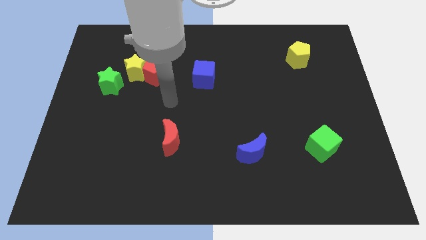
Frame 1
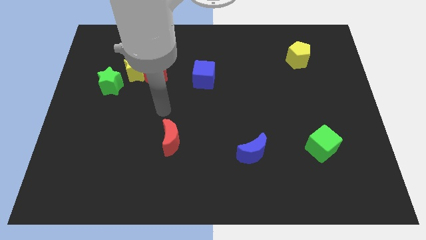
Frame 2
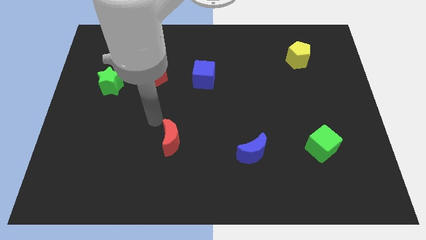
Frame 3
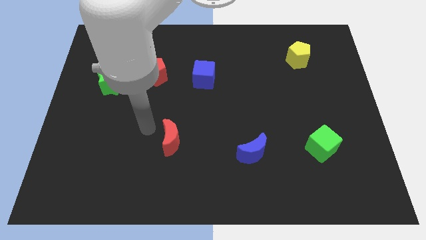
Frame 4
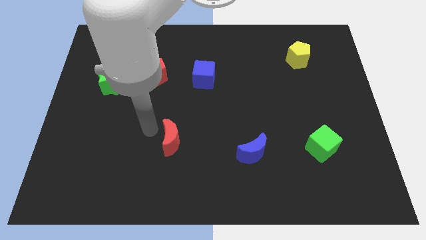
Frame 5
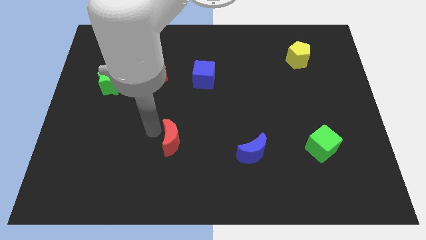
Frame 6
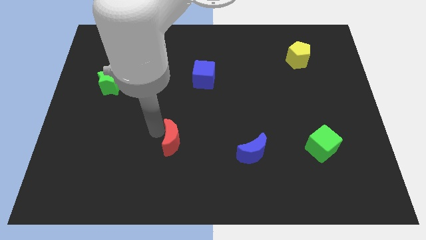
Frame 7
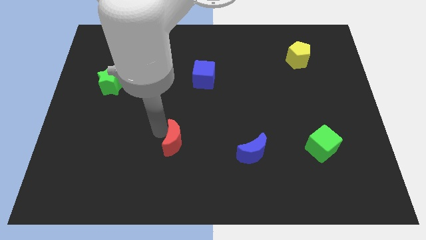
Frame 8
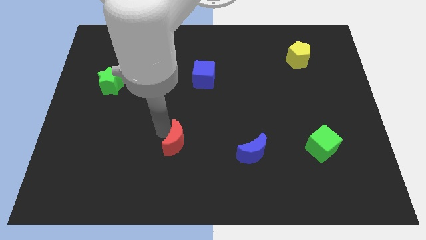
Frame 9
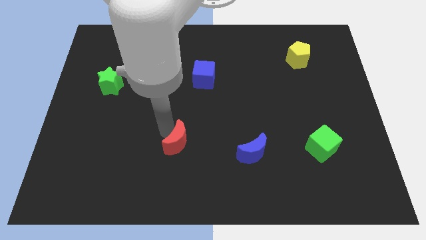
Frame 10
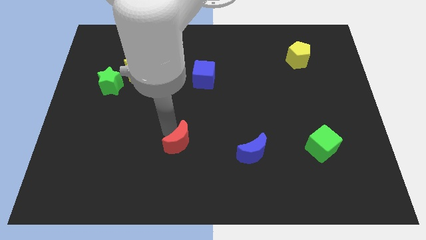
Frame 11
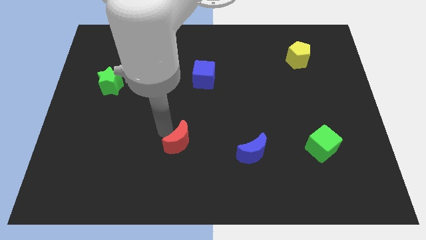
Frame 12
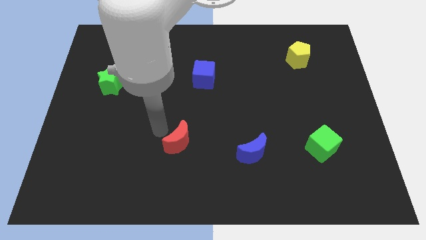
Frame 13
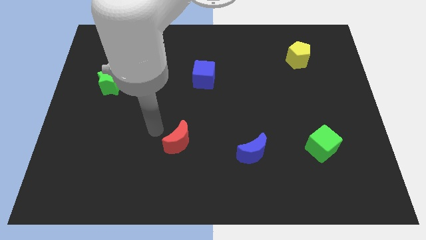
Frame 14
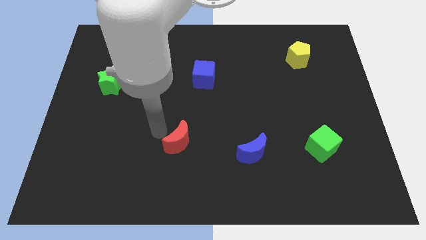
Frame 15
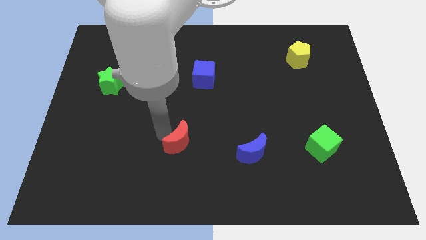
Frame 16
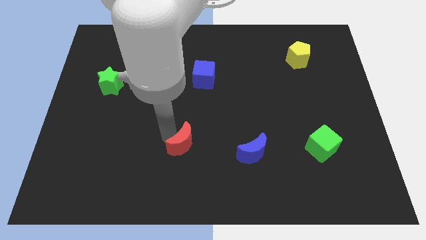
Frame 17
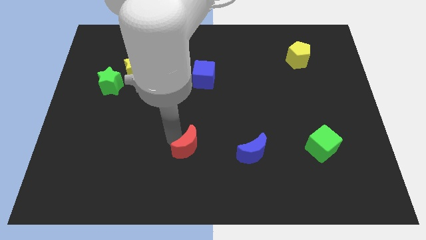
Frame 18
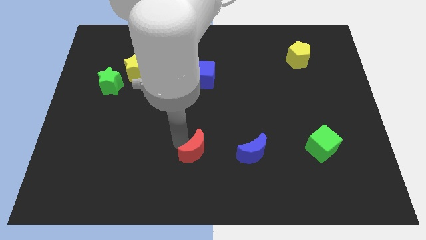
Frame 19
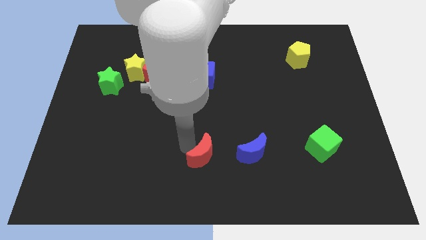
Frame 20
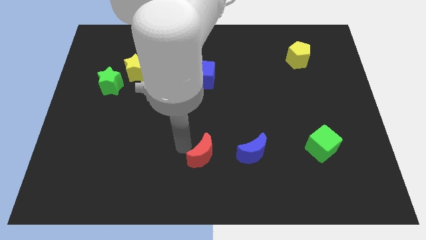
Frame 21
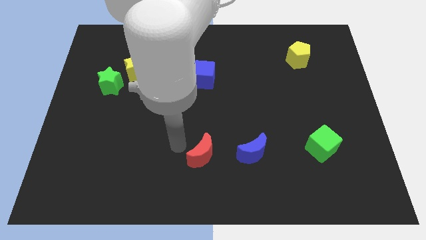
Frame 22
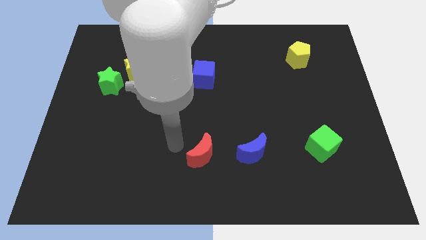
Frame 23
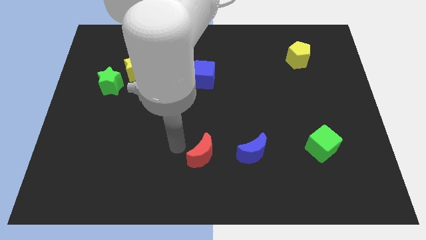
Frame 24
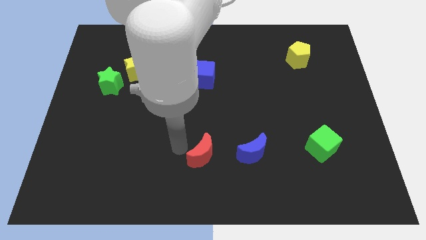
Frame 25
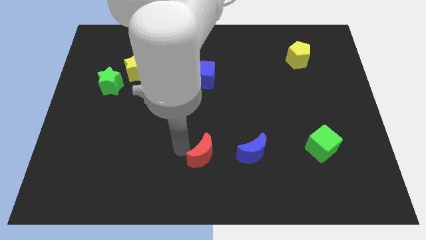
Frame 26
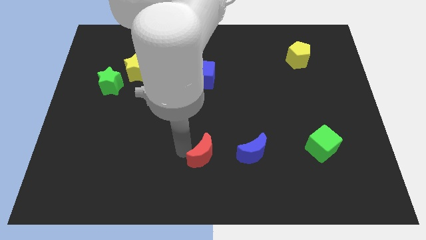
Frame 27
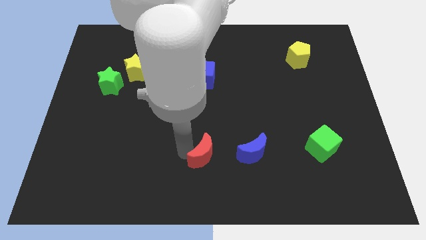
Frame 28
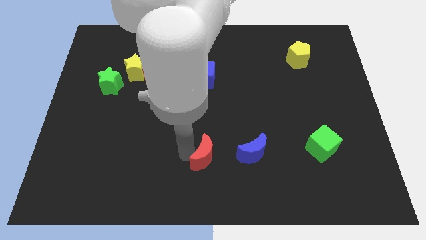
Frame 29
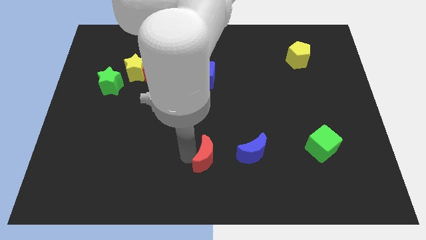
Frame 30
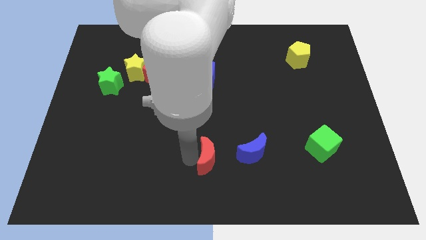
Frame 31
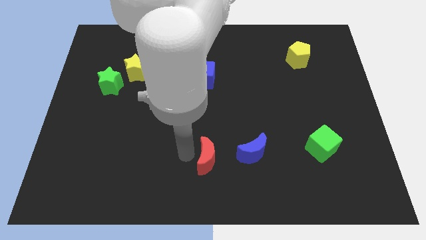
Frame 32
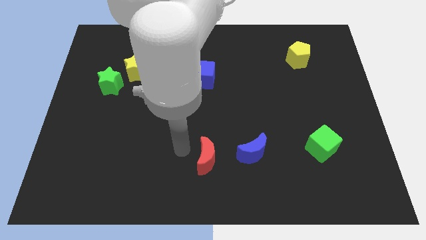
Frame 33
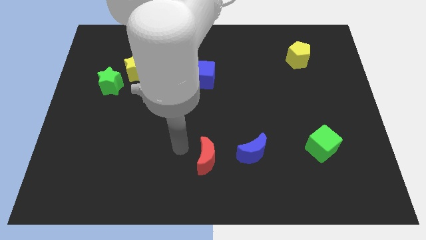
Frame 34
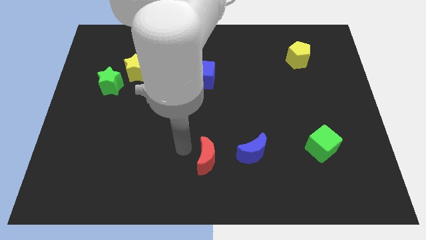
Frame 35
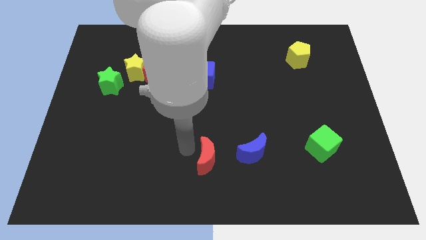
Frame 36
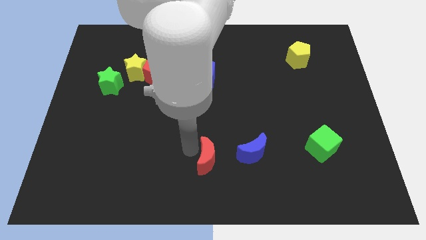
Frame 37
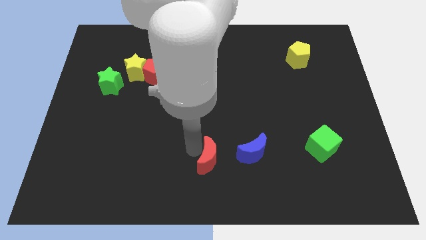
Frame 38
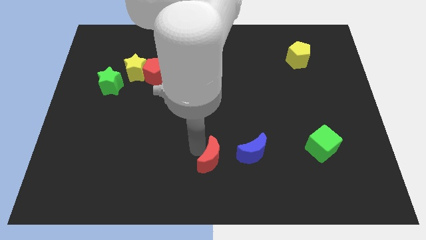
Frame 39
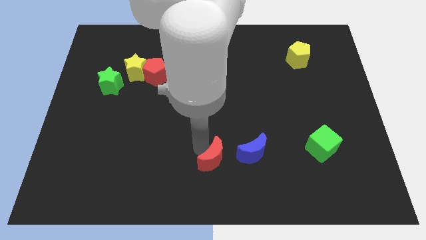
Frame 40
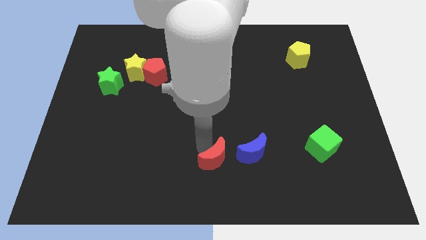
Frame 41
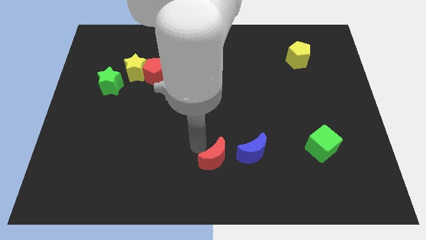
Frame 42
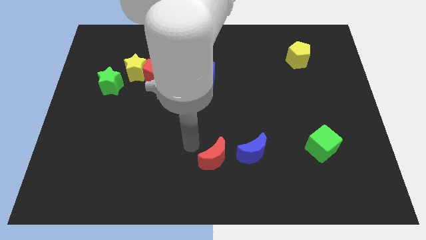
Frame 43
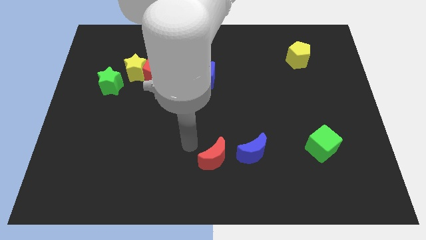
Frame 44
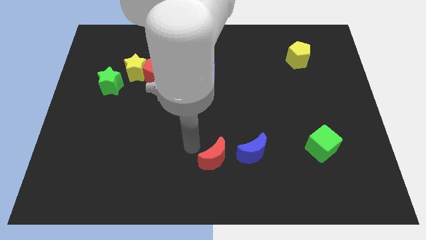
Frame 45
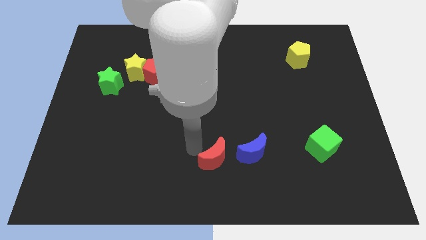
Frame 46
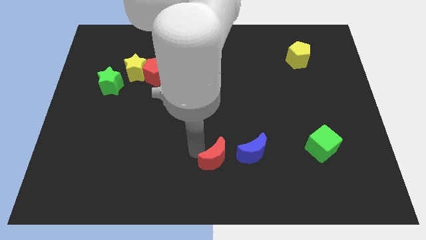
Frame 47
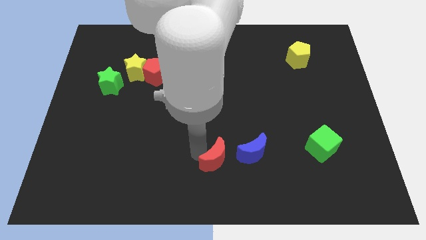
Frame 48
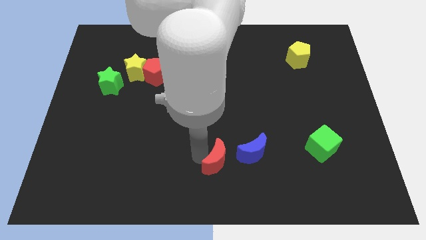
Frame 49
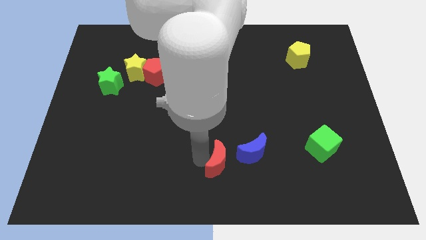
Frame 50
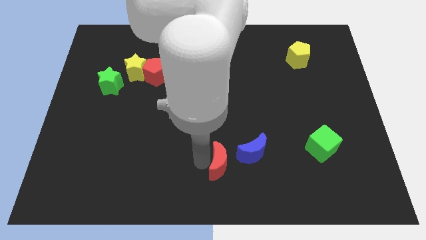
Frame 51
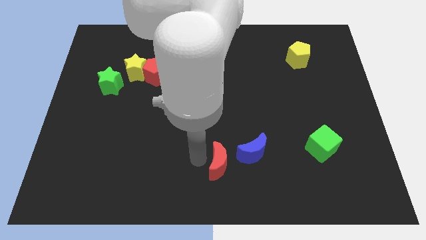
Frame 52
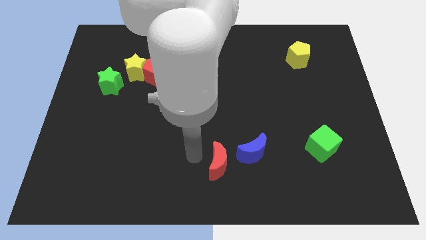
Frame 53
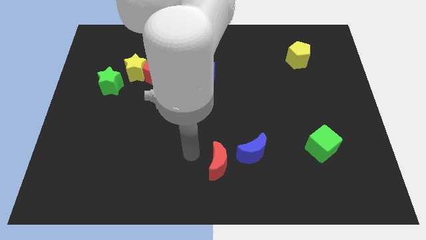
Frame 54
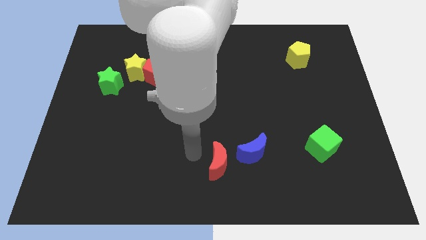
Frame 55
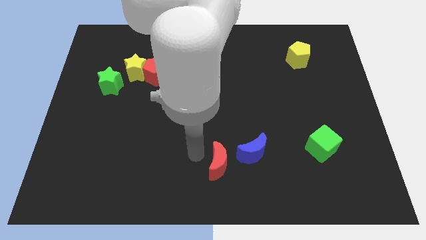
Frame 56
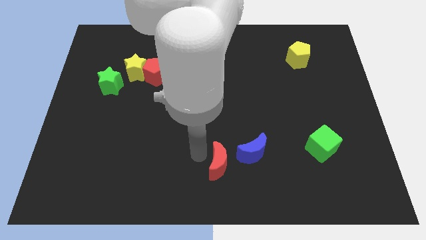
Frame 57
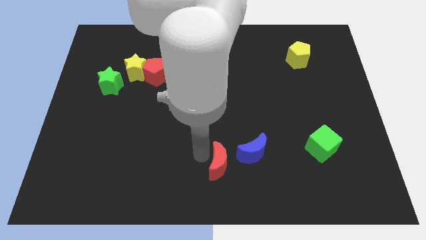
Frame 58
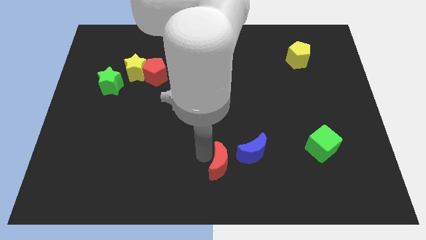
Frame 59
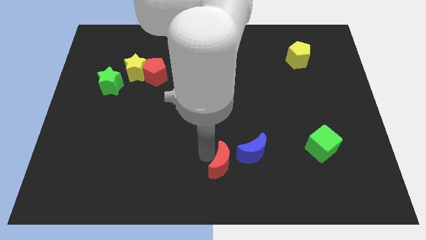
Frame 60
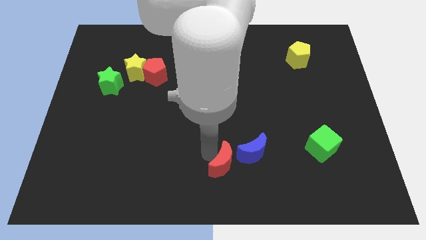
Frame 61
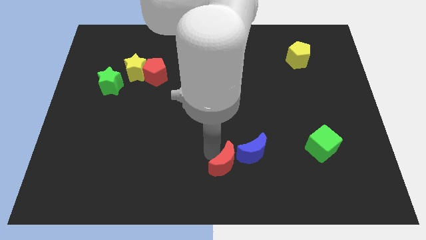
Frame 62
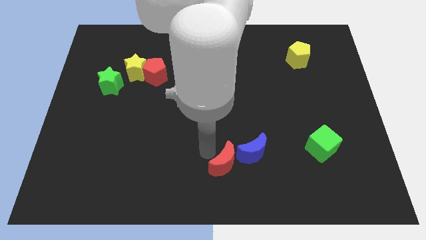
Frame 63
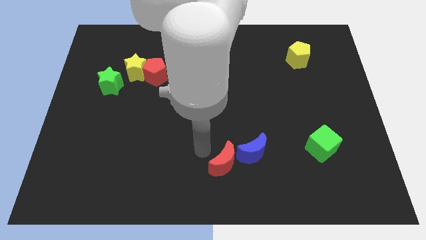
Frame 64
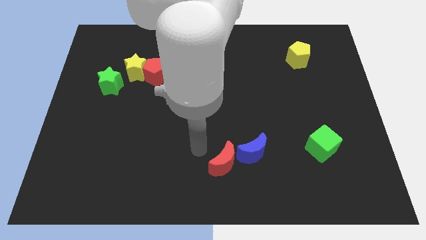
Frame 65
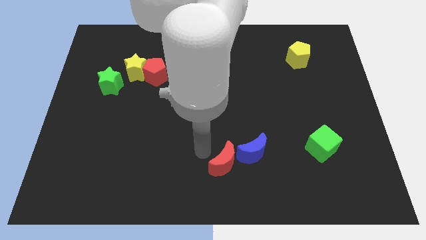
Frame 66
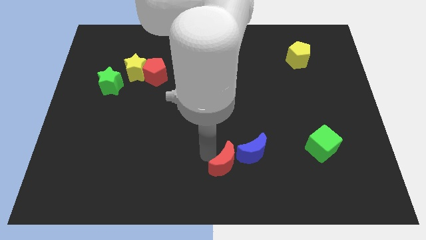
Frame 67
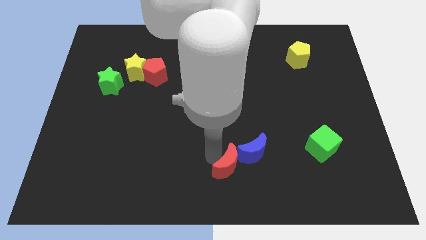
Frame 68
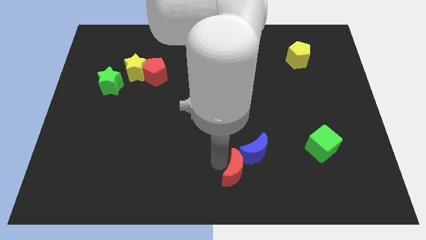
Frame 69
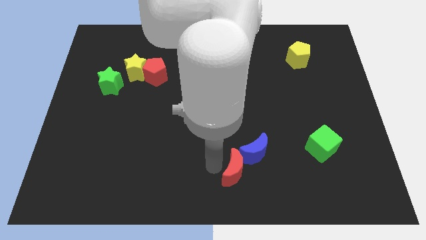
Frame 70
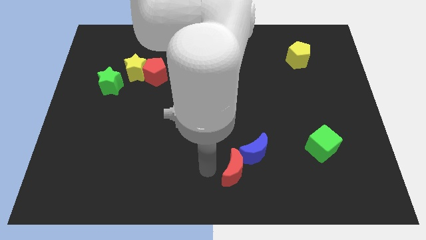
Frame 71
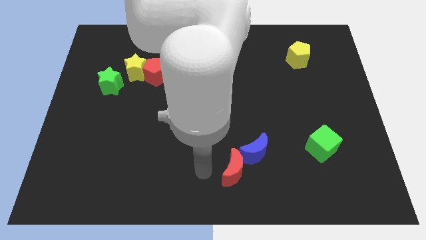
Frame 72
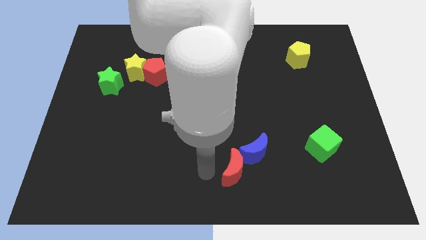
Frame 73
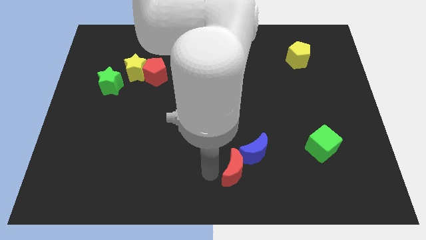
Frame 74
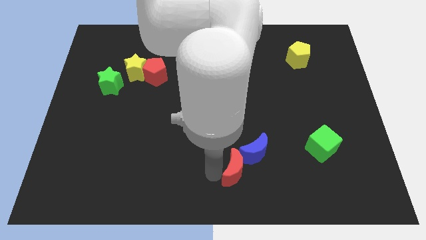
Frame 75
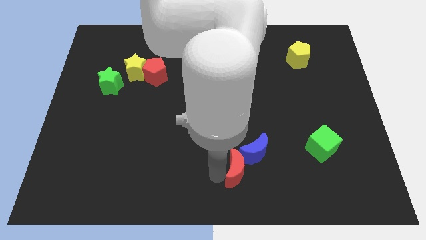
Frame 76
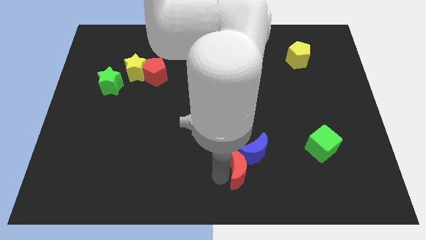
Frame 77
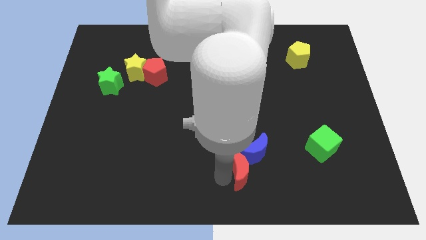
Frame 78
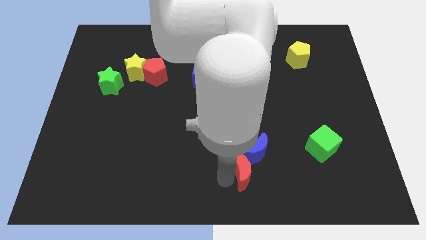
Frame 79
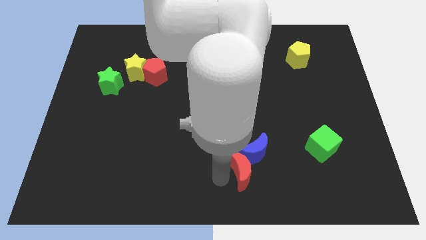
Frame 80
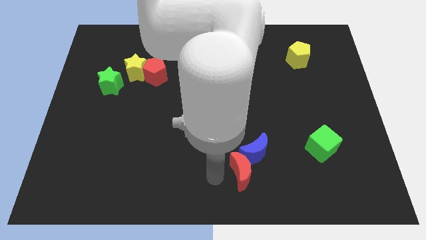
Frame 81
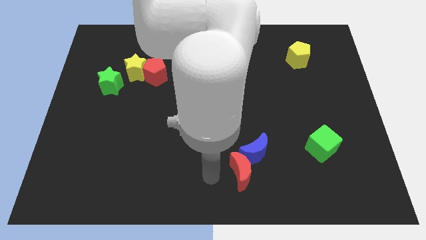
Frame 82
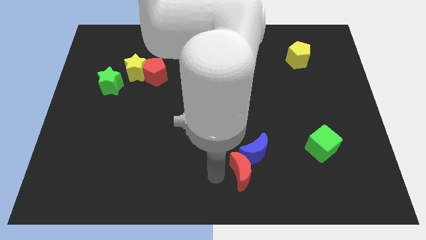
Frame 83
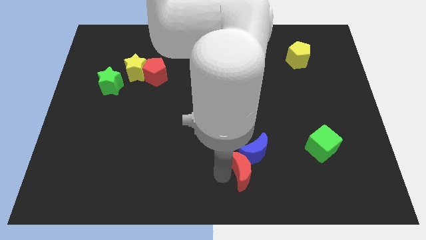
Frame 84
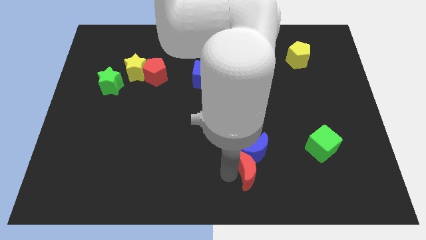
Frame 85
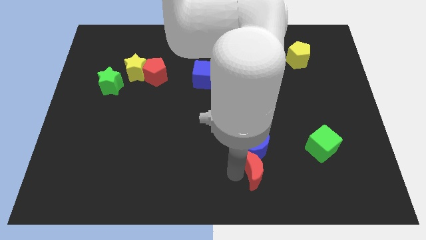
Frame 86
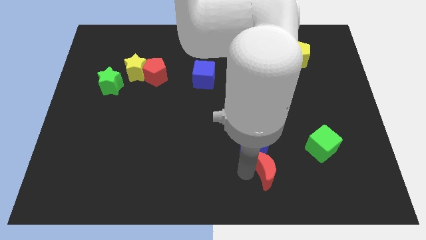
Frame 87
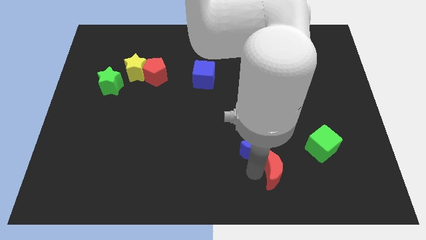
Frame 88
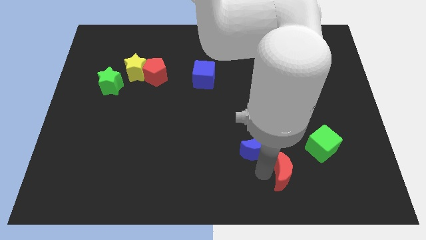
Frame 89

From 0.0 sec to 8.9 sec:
put the red moon diagonally down and to the left of the green cube
